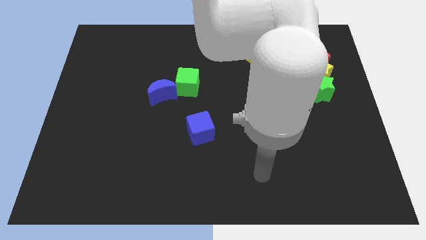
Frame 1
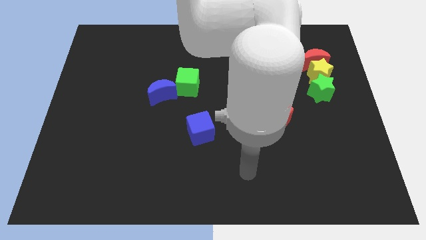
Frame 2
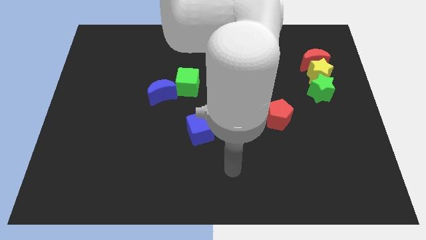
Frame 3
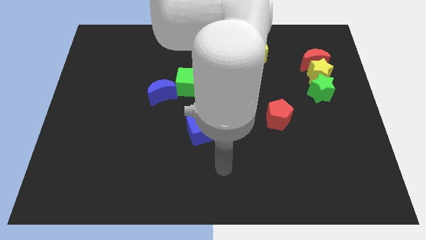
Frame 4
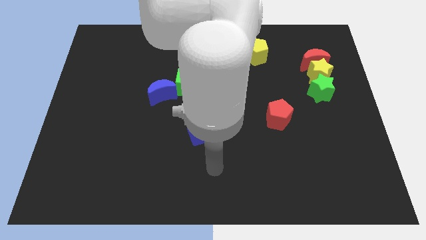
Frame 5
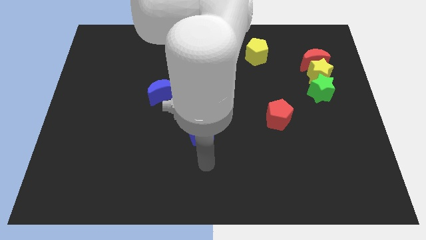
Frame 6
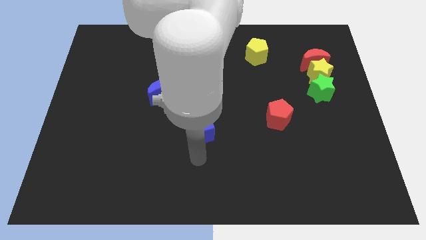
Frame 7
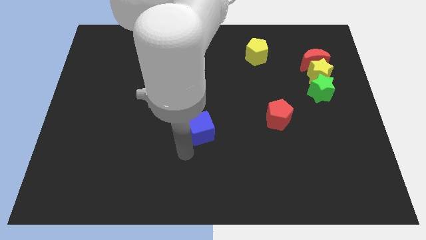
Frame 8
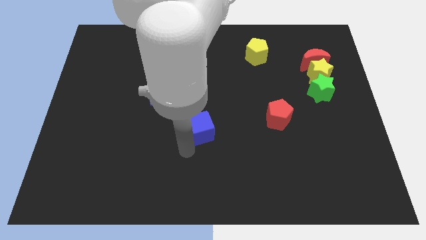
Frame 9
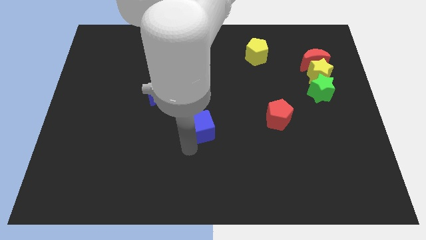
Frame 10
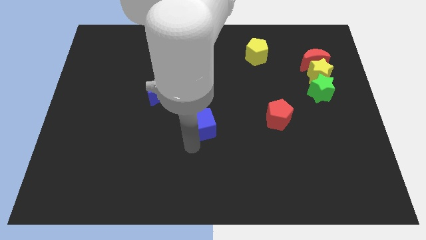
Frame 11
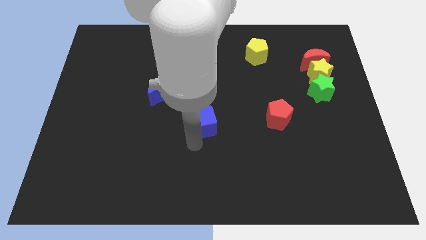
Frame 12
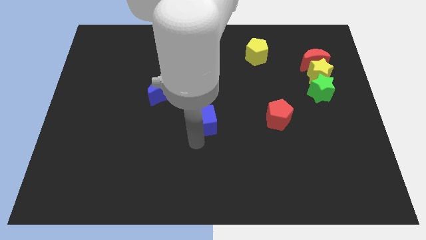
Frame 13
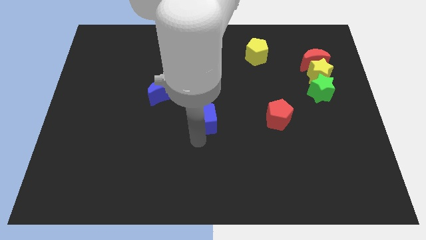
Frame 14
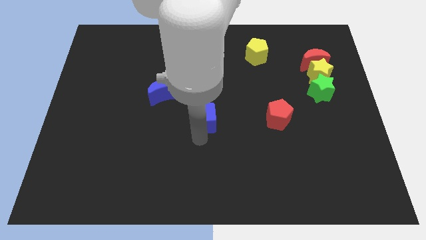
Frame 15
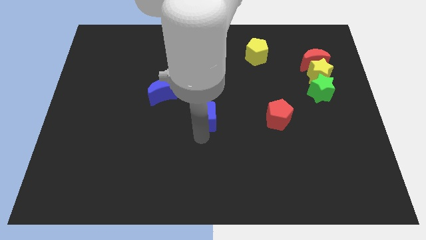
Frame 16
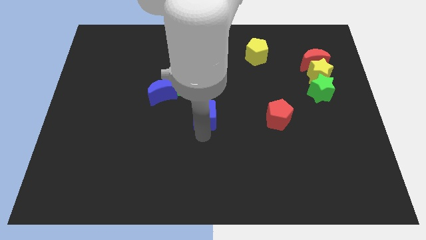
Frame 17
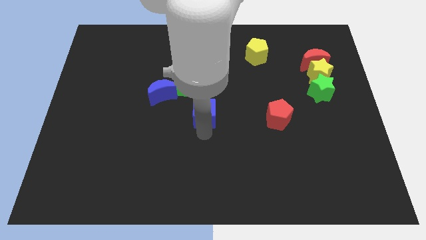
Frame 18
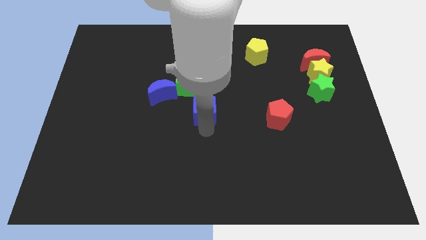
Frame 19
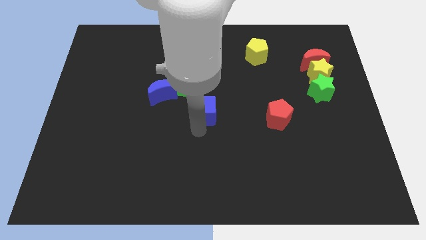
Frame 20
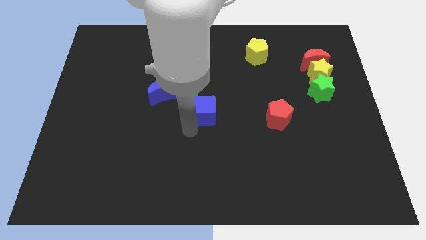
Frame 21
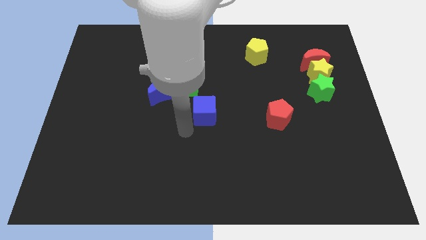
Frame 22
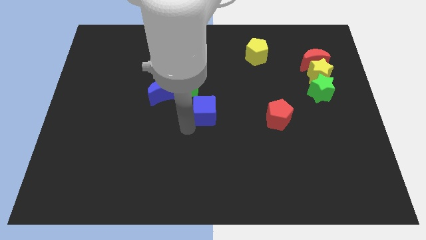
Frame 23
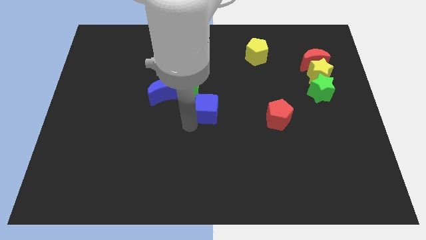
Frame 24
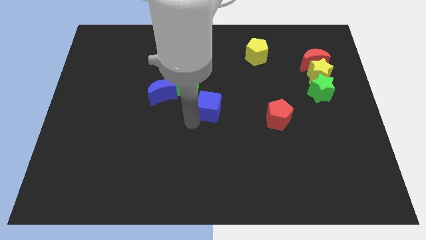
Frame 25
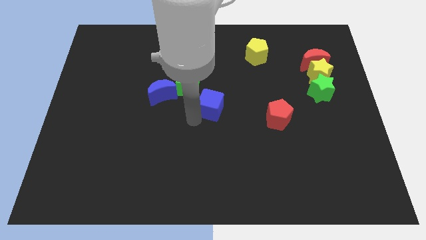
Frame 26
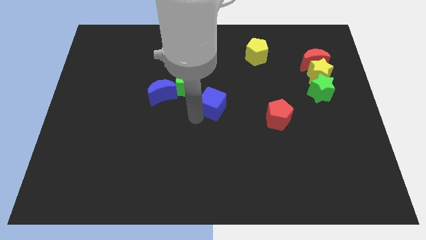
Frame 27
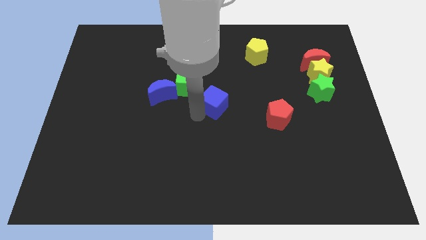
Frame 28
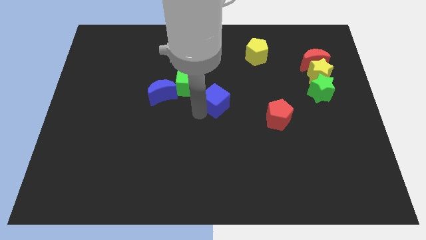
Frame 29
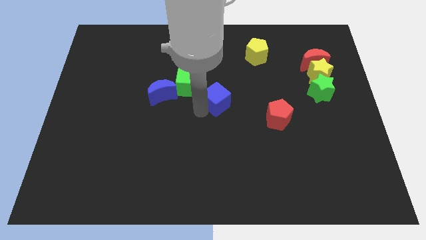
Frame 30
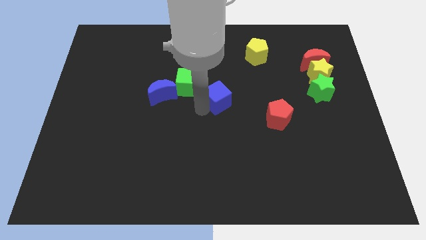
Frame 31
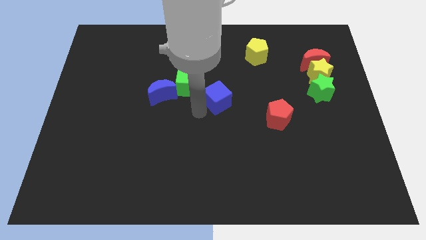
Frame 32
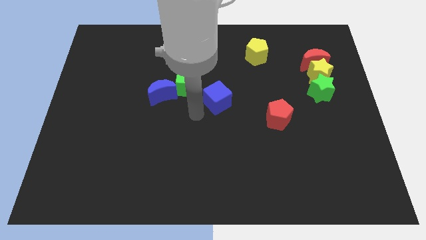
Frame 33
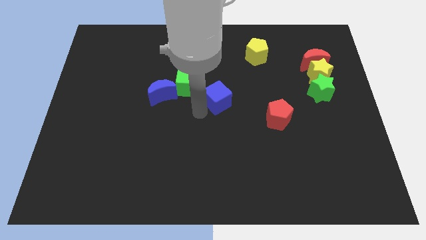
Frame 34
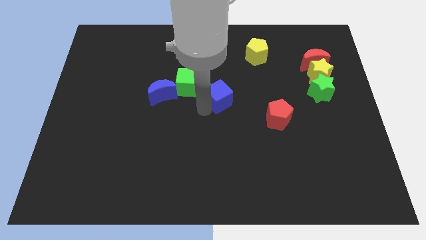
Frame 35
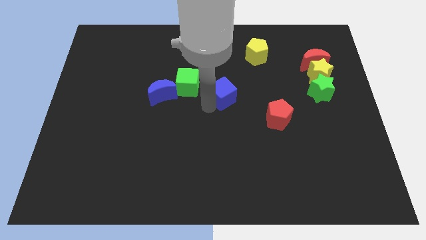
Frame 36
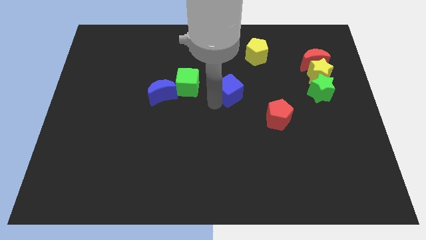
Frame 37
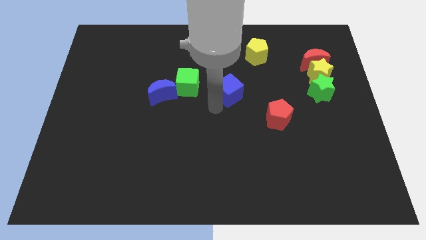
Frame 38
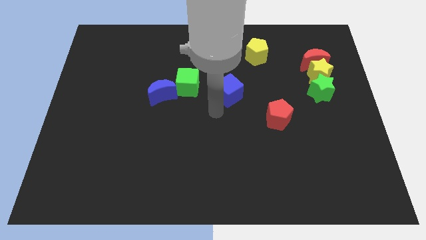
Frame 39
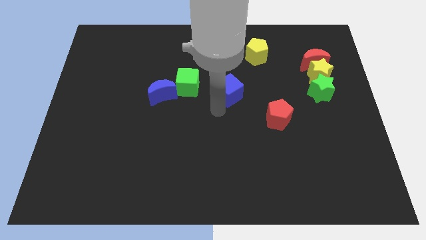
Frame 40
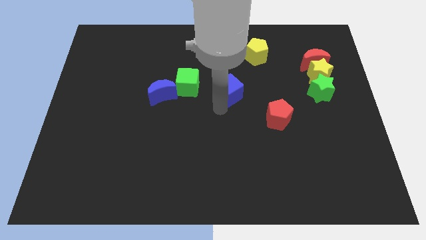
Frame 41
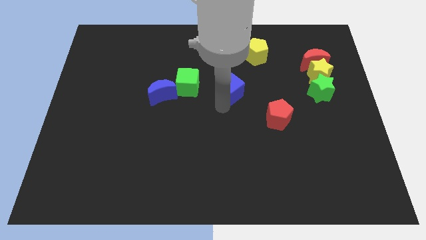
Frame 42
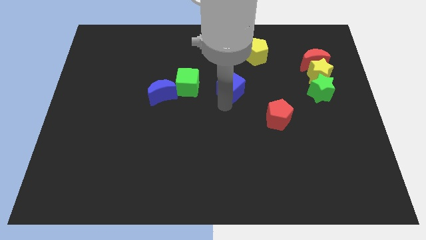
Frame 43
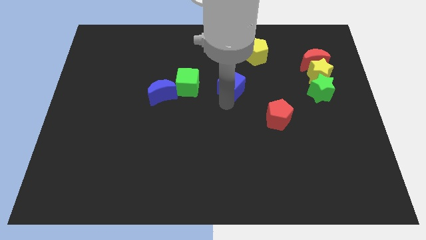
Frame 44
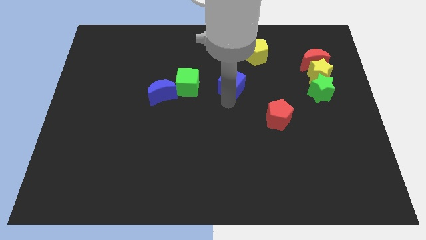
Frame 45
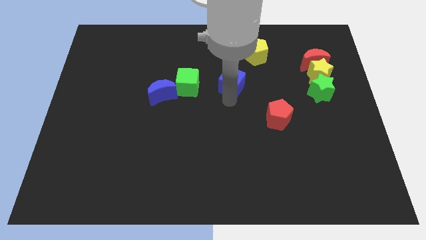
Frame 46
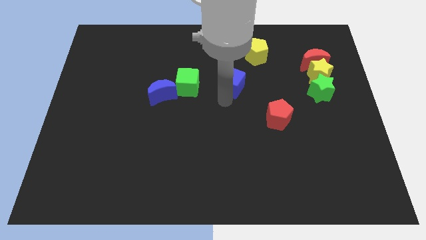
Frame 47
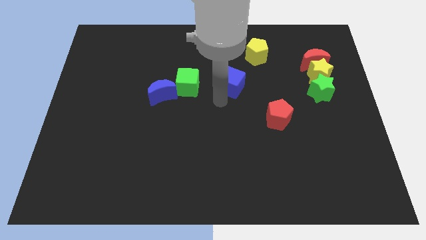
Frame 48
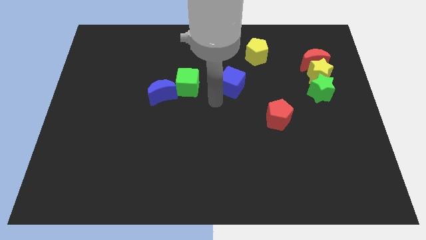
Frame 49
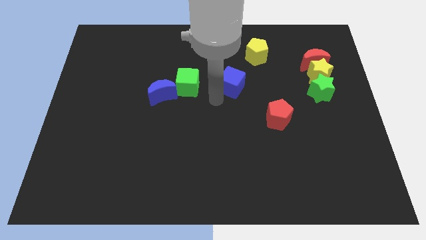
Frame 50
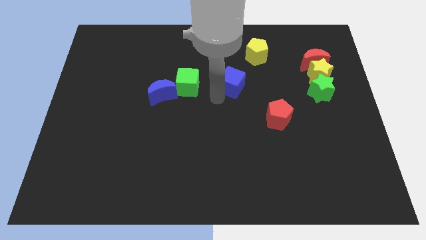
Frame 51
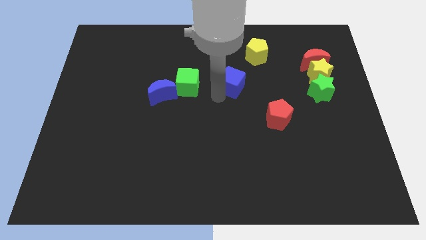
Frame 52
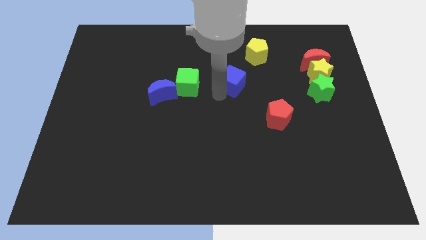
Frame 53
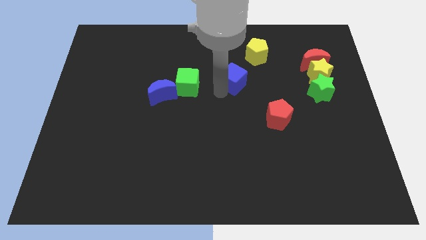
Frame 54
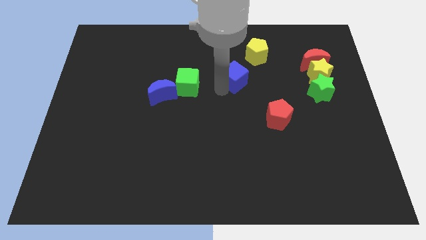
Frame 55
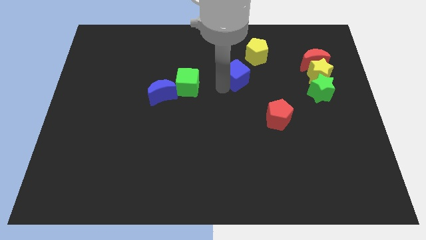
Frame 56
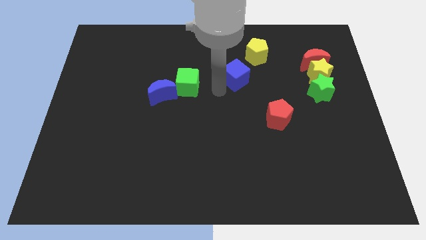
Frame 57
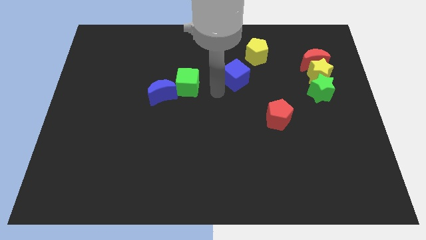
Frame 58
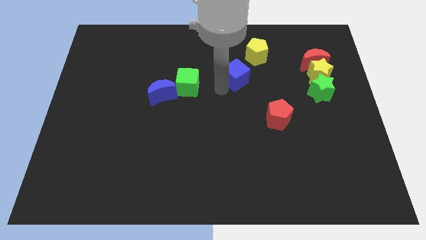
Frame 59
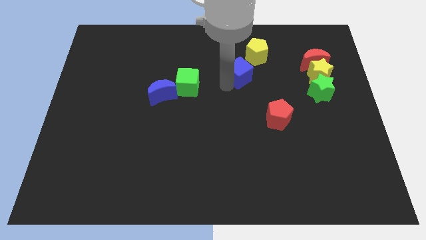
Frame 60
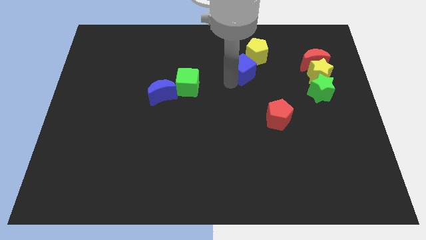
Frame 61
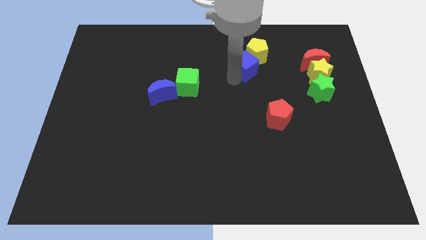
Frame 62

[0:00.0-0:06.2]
move the blue cube to the yellow pentagon

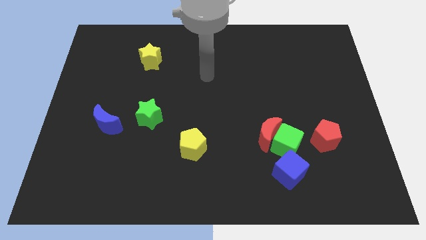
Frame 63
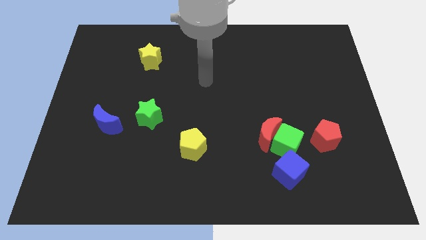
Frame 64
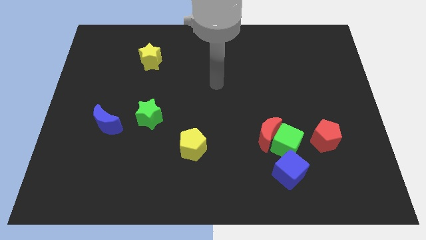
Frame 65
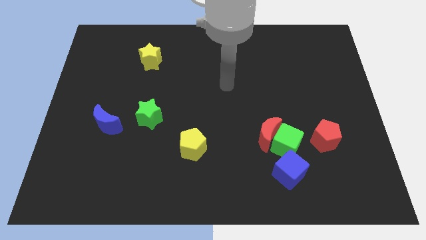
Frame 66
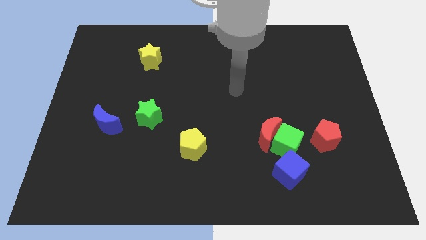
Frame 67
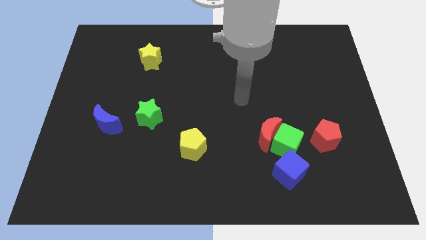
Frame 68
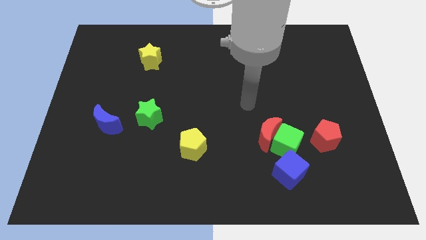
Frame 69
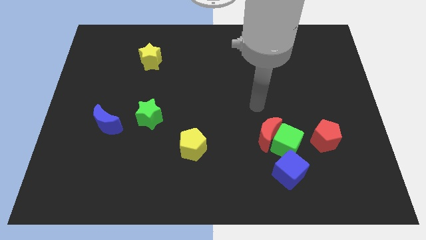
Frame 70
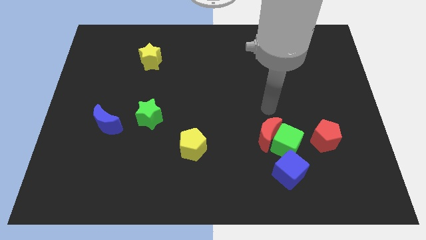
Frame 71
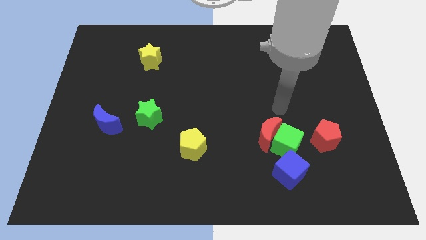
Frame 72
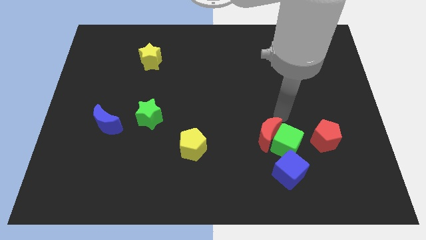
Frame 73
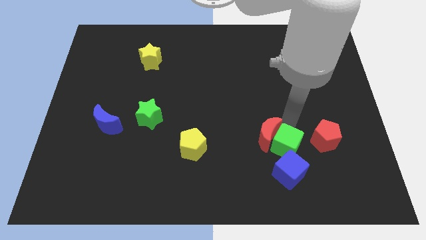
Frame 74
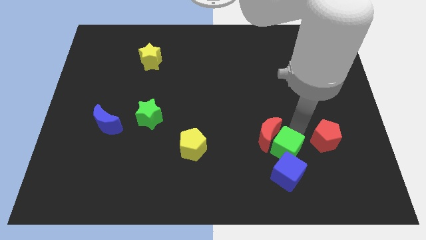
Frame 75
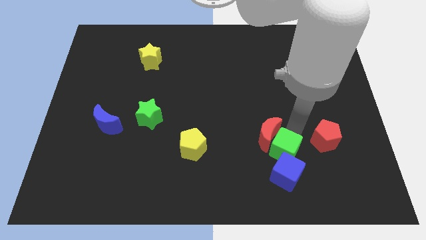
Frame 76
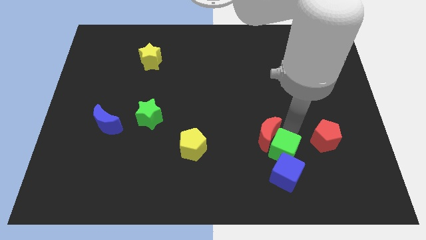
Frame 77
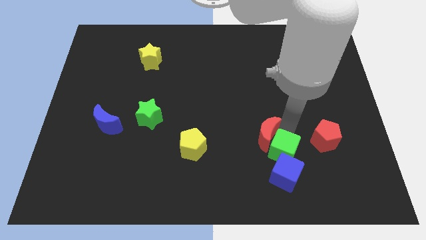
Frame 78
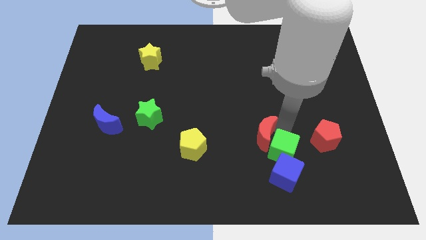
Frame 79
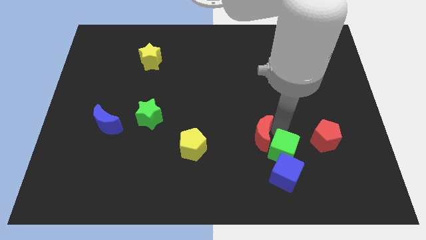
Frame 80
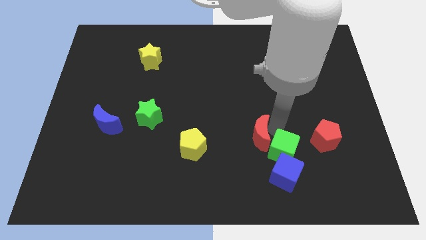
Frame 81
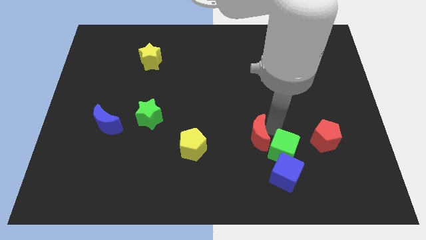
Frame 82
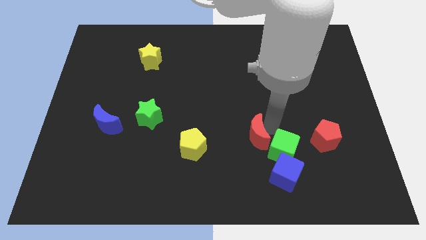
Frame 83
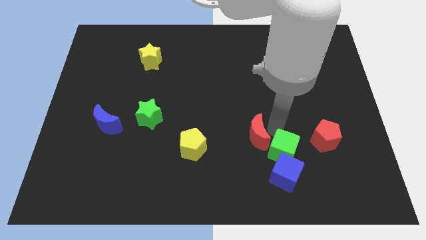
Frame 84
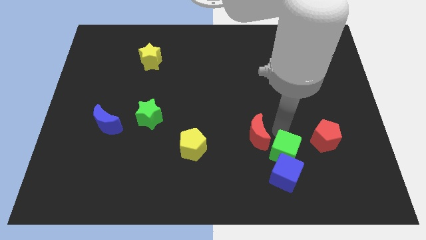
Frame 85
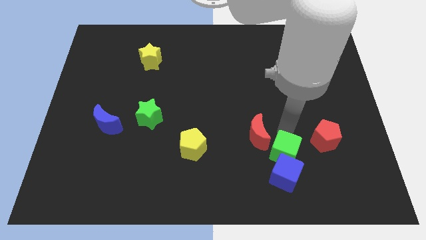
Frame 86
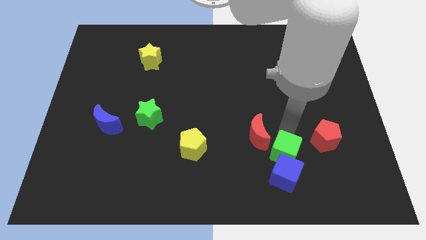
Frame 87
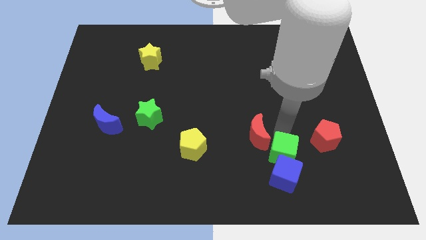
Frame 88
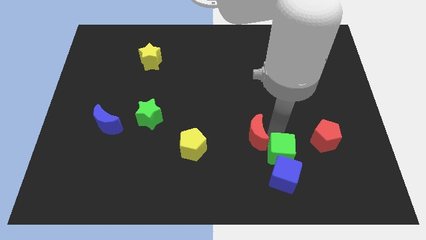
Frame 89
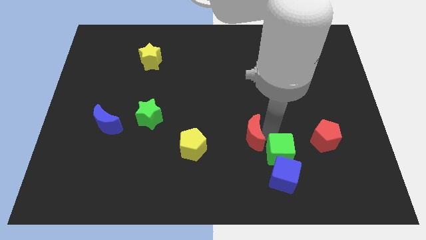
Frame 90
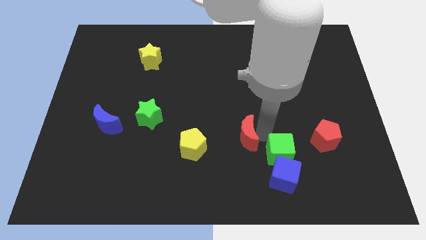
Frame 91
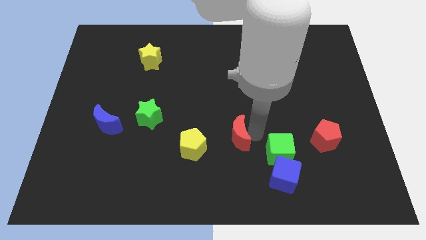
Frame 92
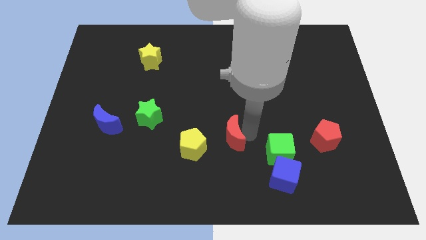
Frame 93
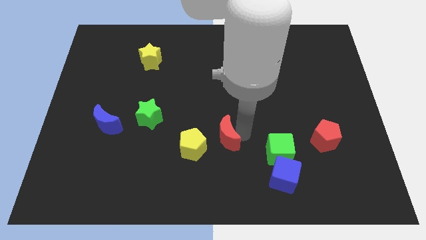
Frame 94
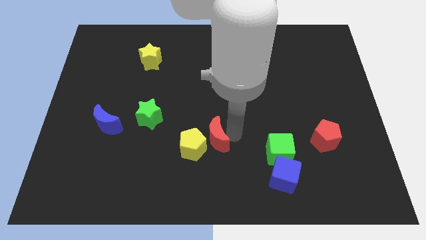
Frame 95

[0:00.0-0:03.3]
put the red moon next to the yellow pentagon
